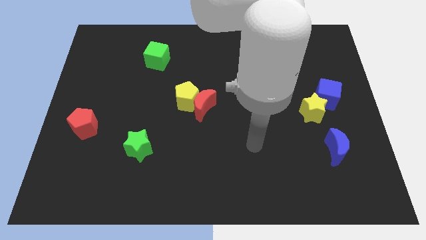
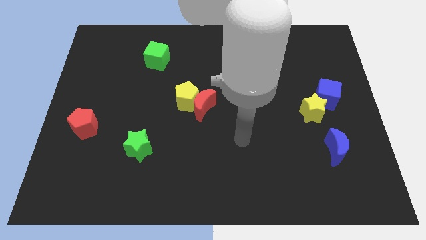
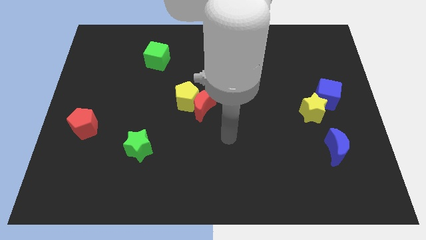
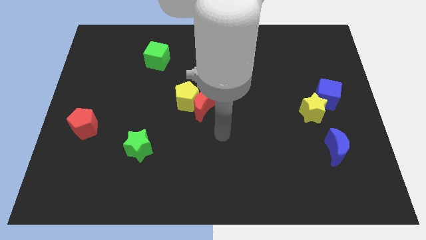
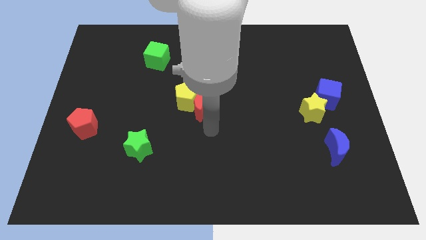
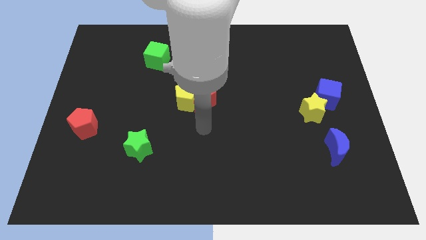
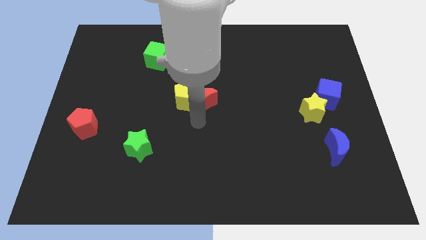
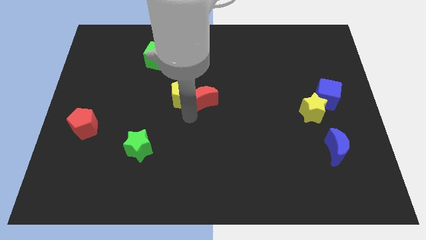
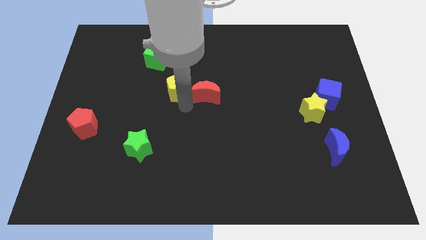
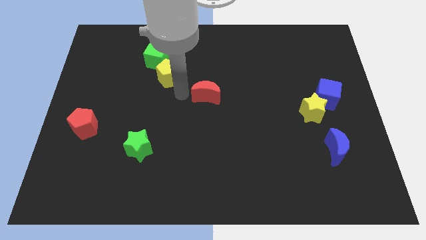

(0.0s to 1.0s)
separate the red moon from the yellow pentagon

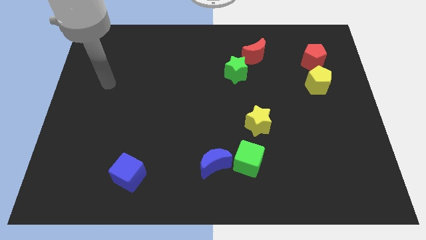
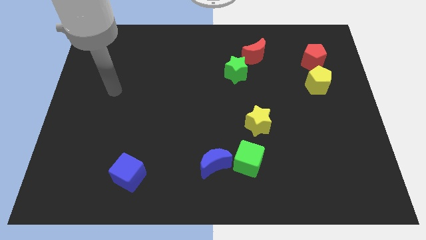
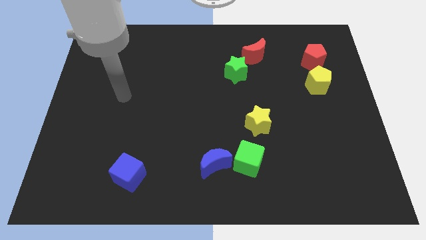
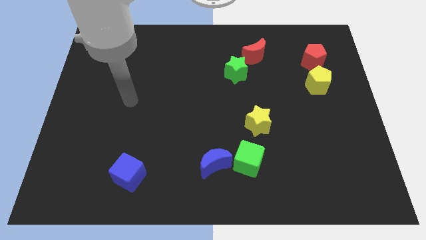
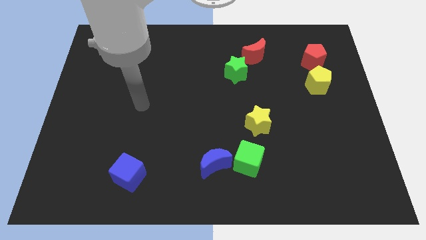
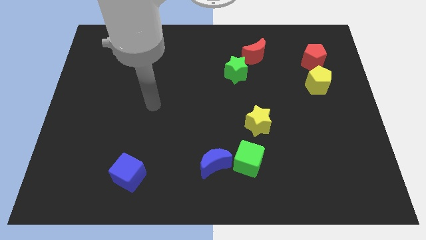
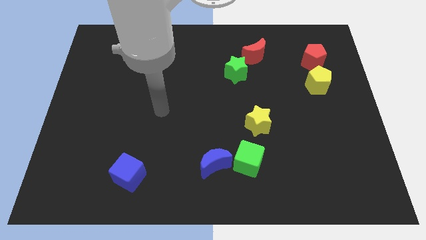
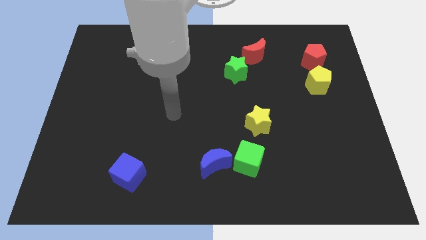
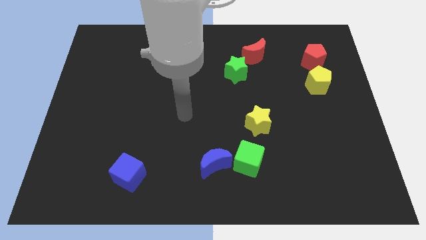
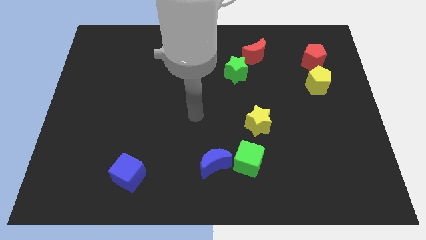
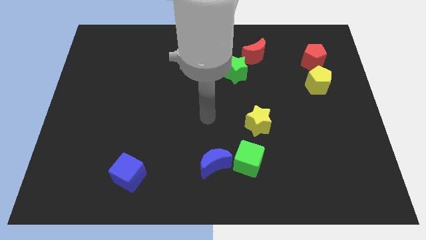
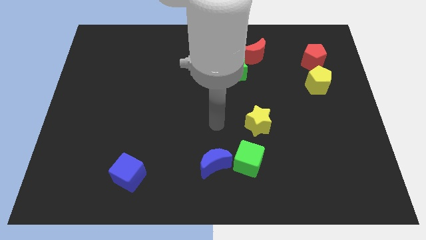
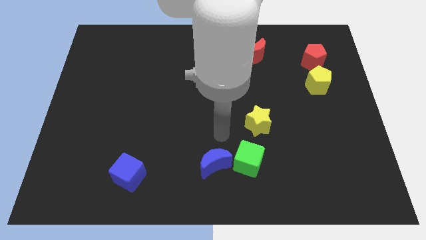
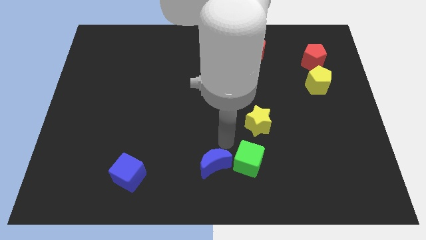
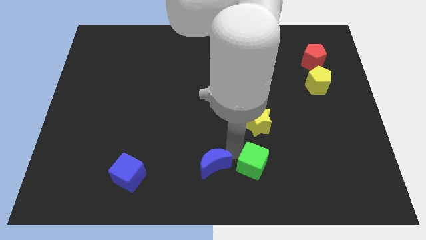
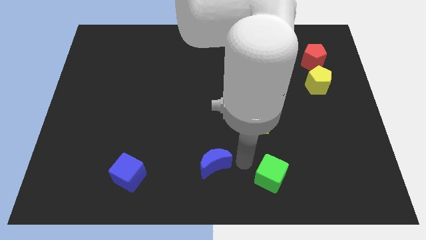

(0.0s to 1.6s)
separate the blue moon from the green cube

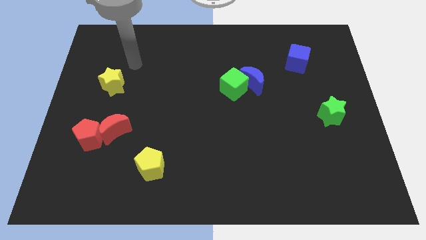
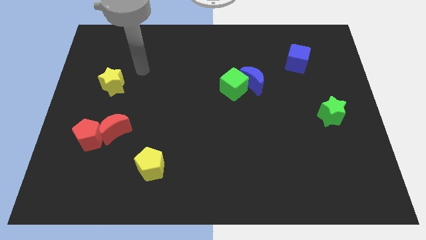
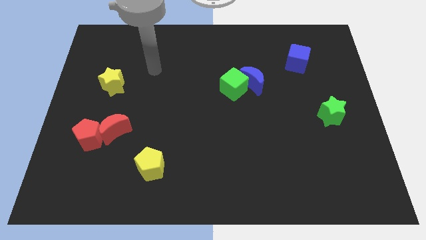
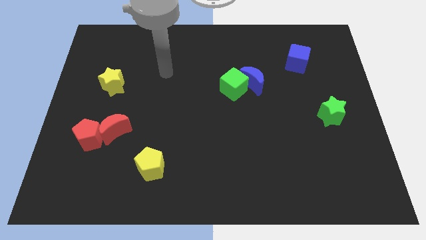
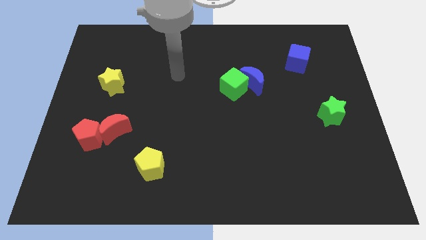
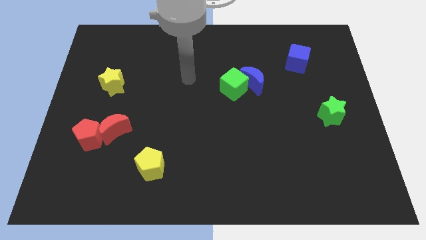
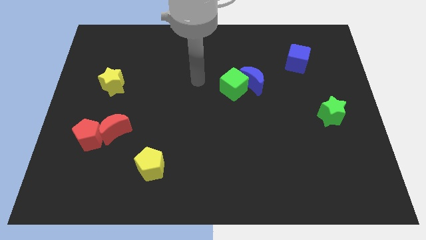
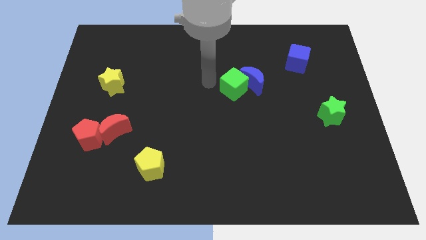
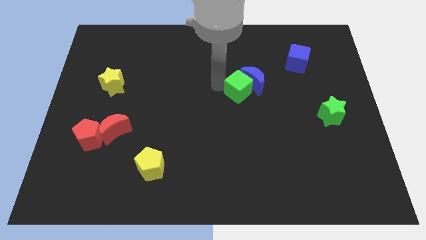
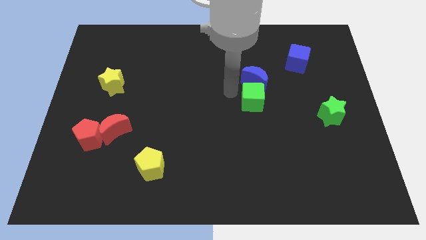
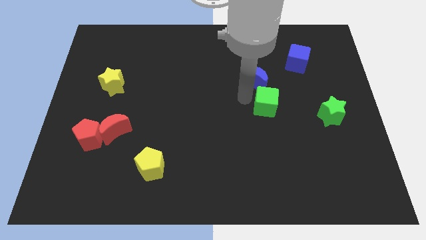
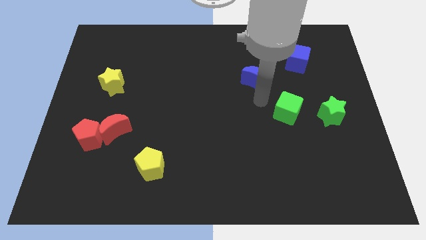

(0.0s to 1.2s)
move the blue moon away from the green cube

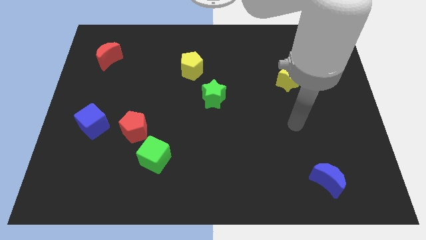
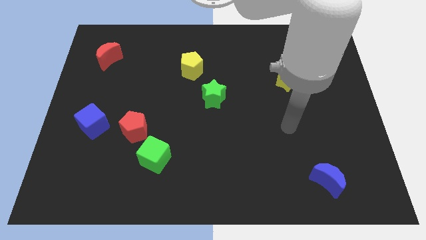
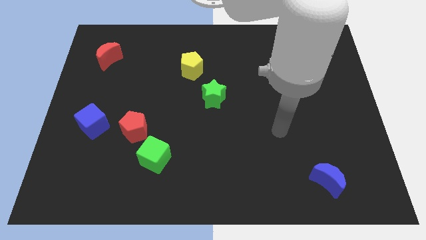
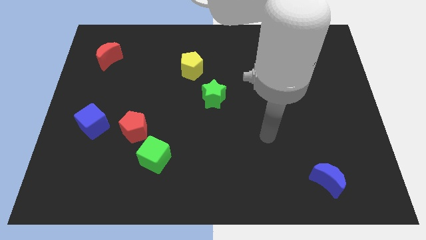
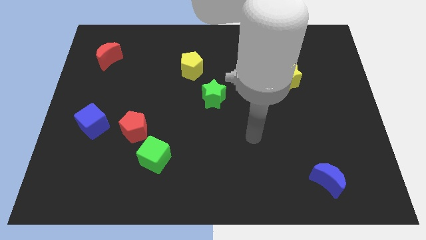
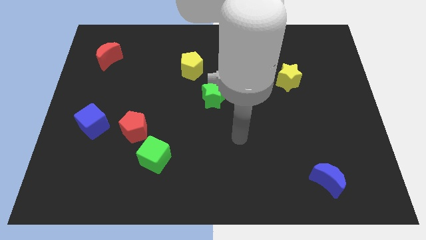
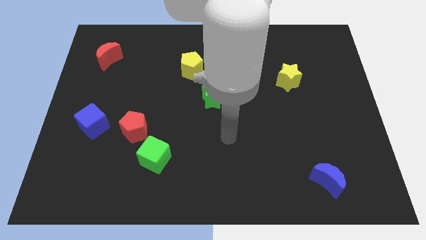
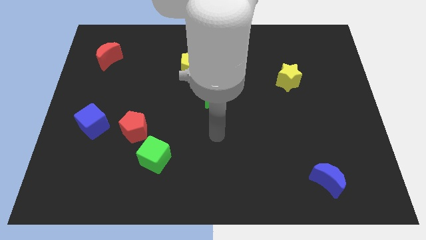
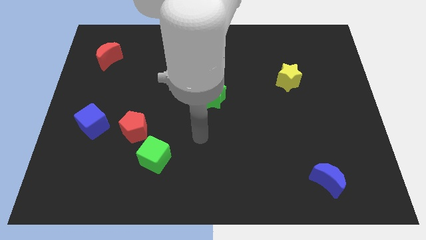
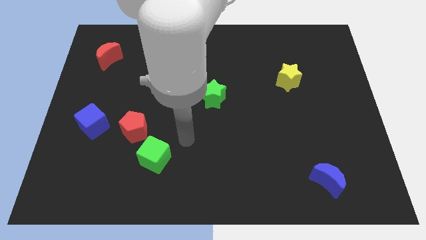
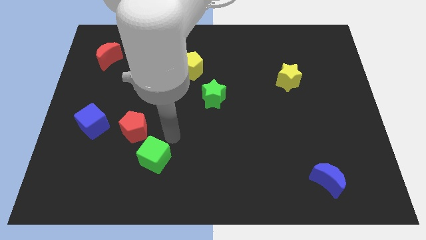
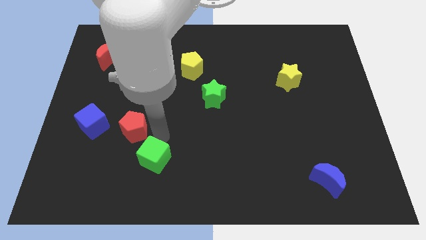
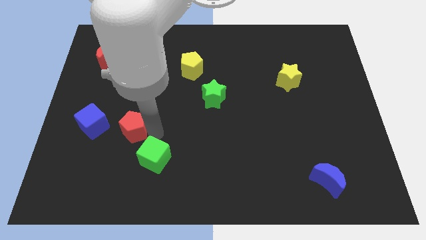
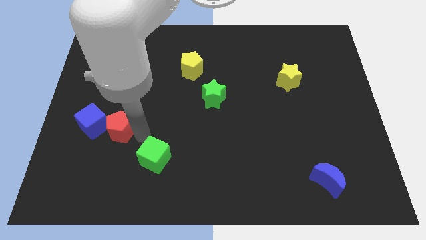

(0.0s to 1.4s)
move the green cube away from the red pentagon

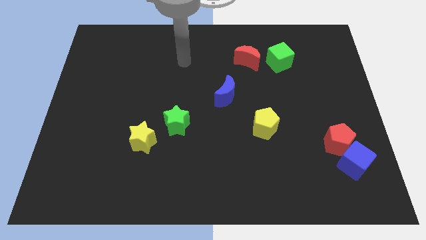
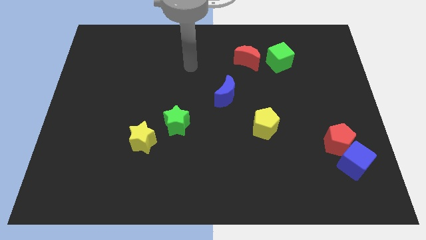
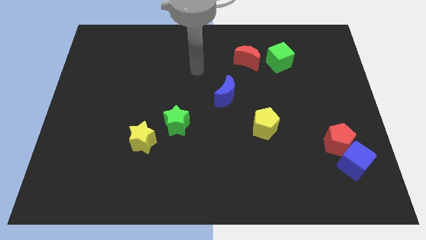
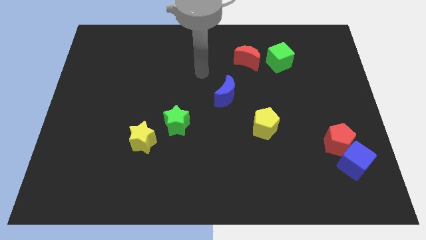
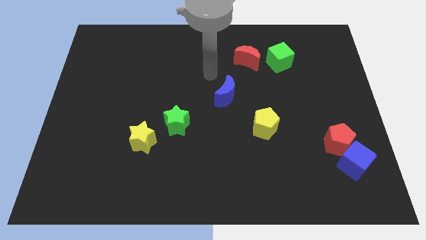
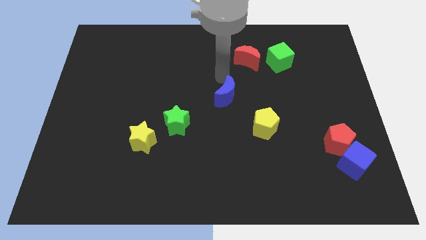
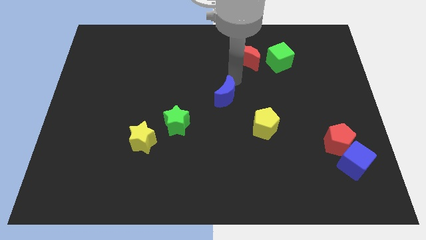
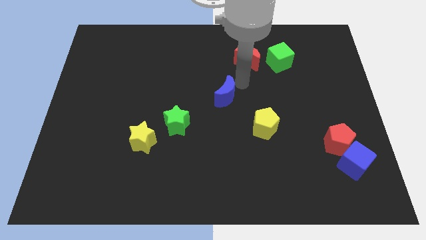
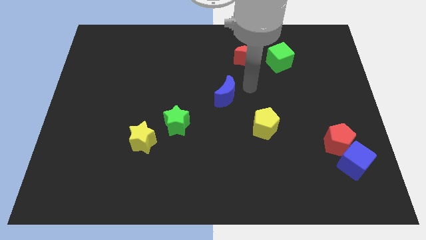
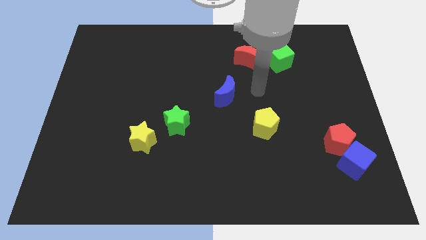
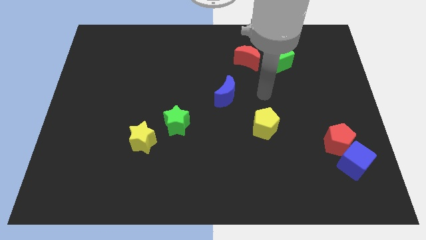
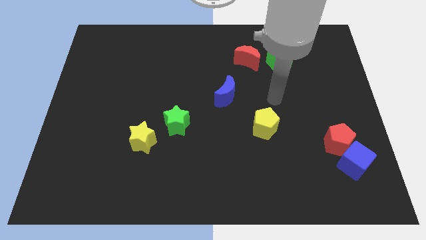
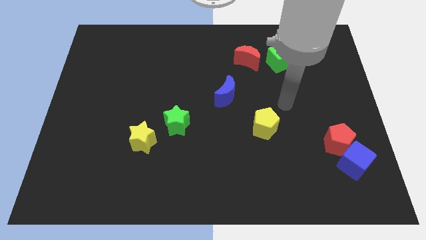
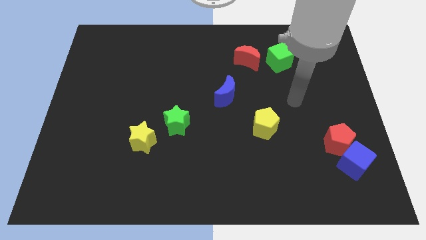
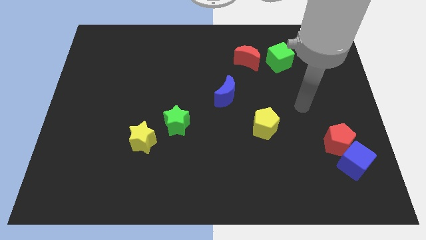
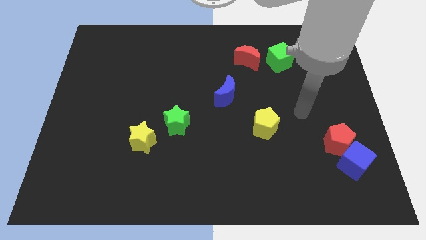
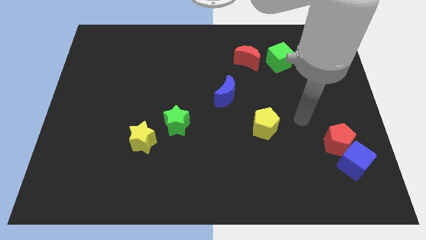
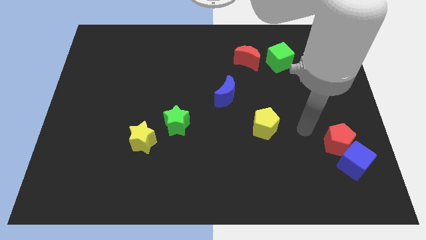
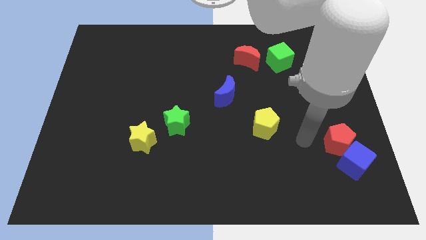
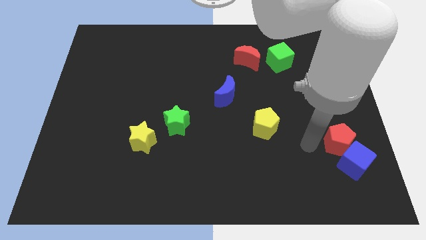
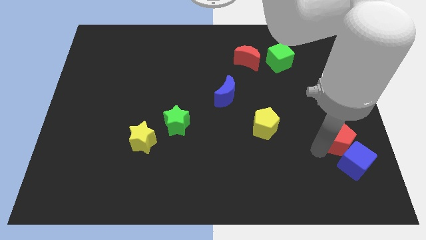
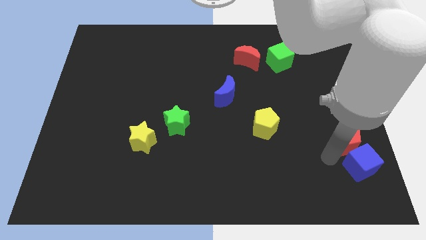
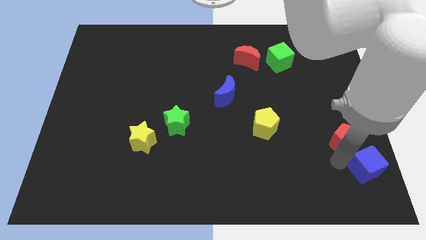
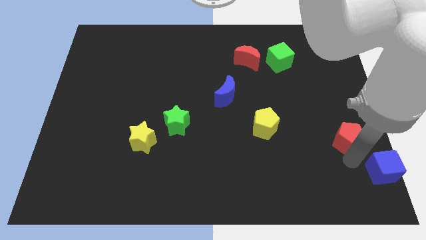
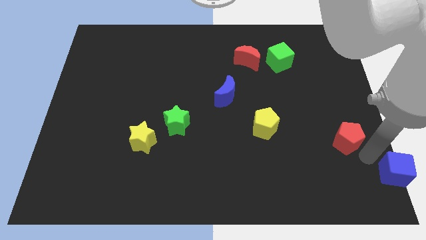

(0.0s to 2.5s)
pull the red pentagon apart from the blue cube

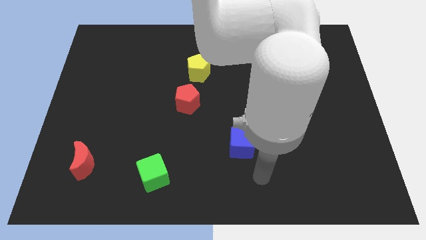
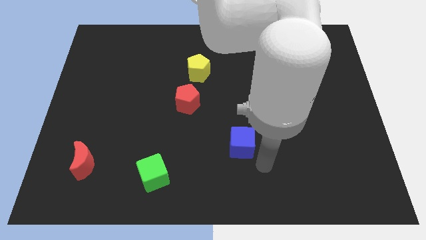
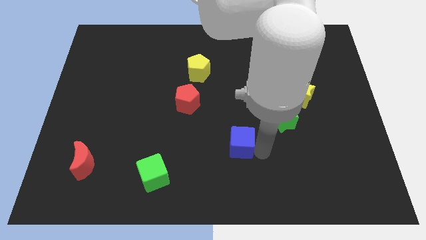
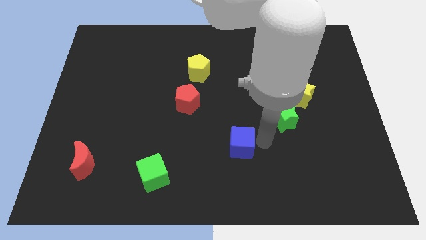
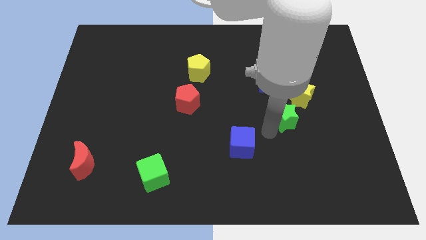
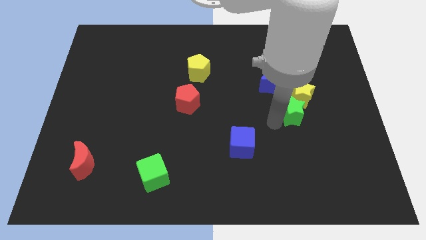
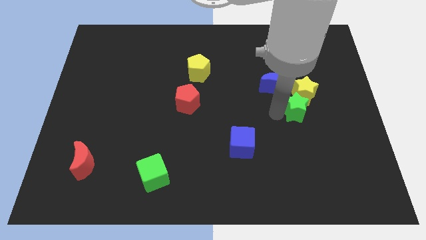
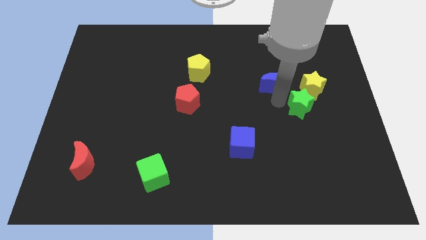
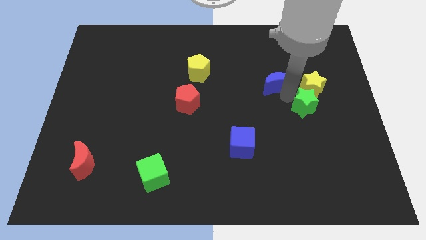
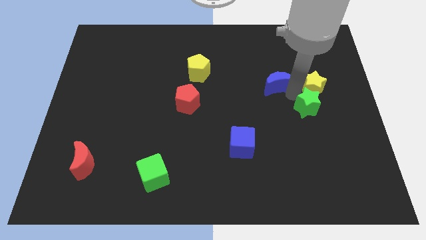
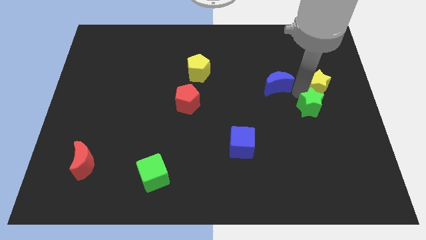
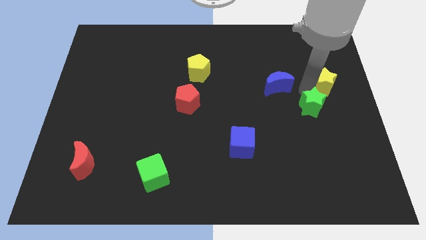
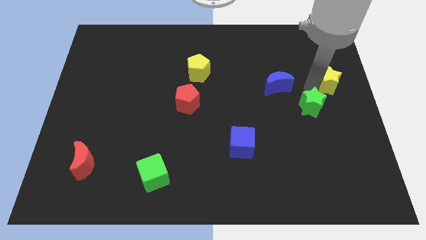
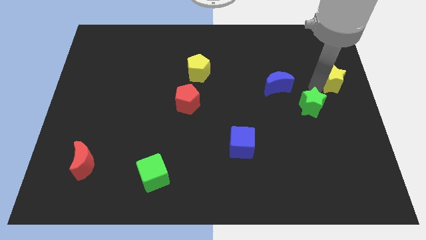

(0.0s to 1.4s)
separate the yellow star from the blue moon and green star
